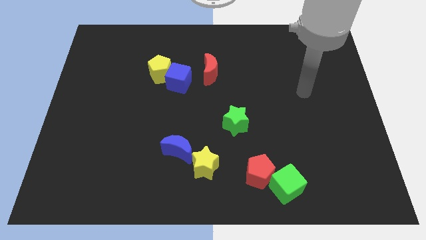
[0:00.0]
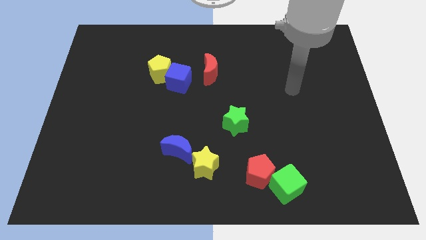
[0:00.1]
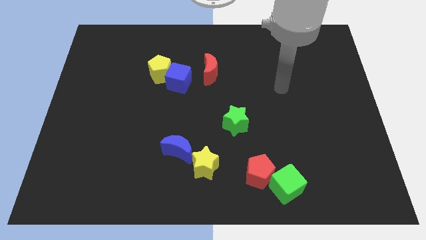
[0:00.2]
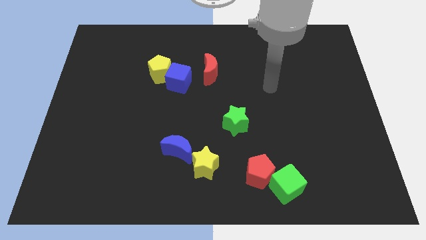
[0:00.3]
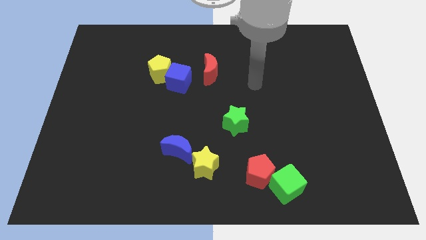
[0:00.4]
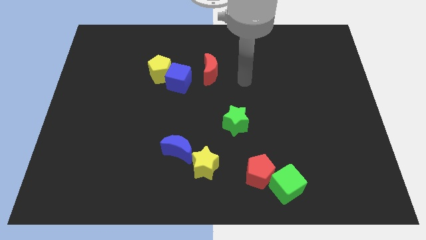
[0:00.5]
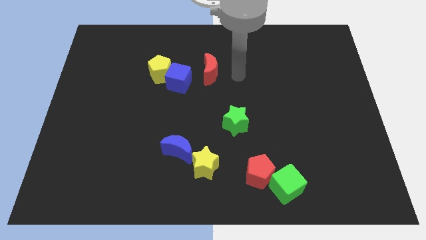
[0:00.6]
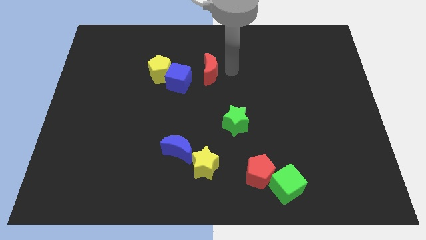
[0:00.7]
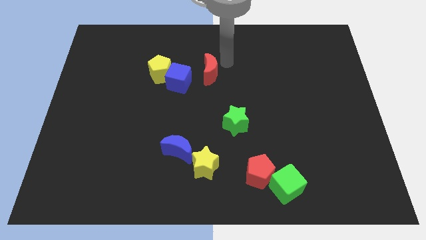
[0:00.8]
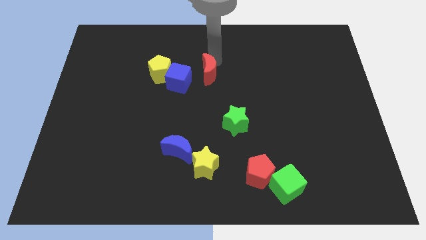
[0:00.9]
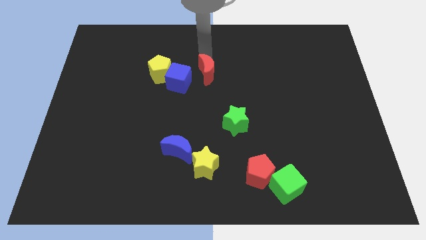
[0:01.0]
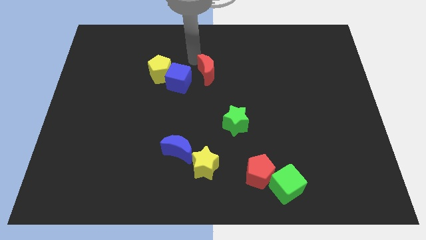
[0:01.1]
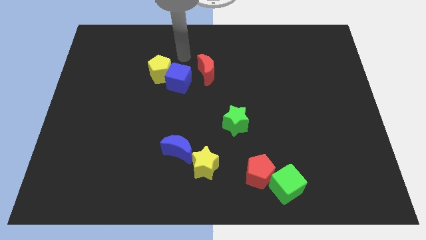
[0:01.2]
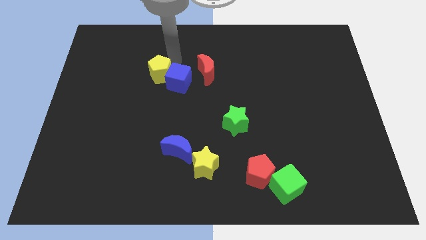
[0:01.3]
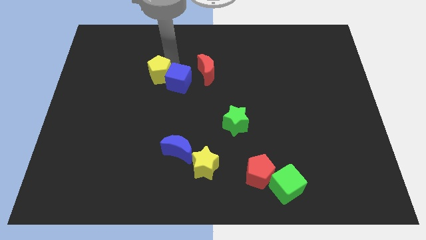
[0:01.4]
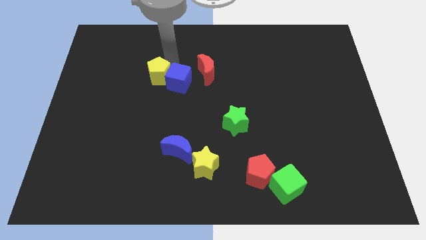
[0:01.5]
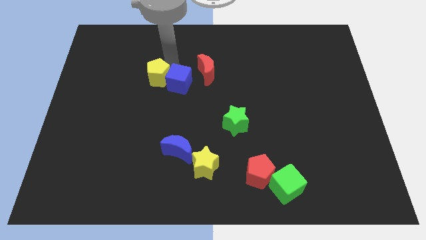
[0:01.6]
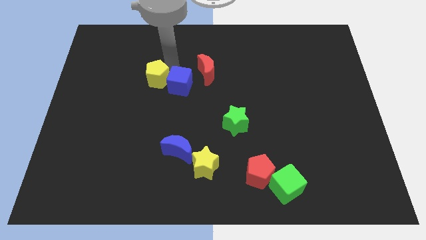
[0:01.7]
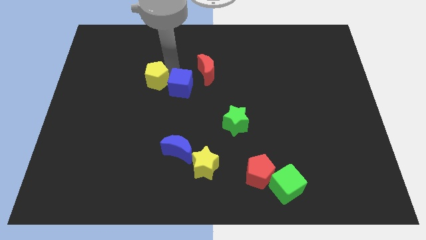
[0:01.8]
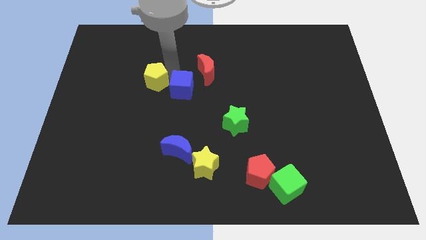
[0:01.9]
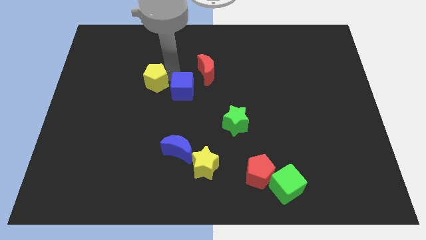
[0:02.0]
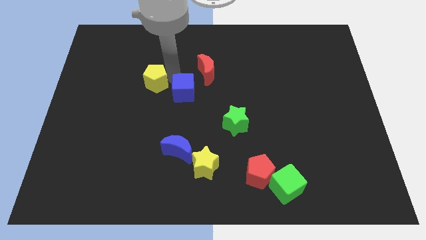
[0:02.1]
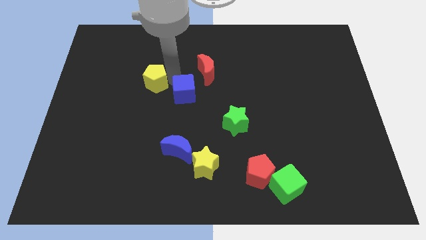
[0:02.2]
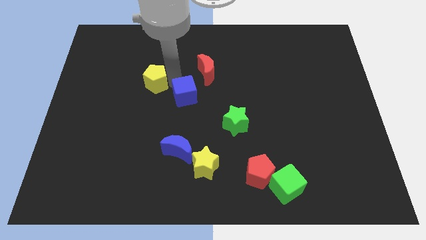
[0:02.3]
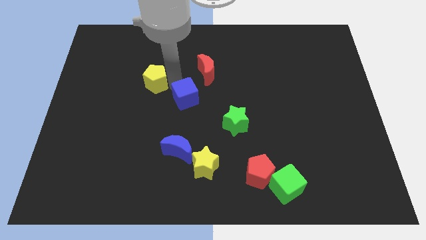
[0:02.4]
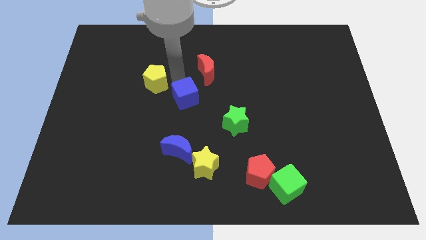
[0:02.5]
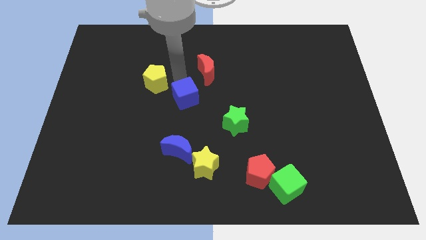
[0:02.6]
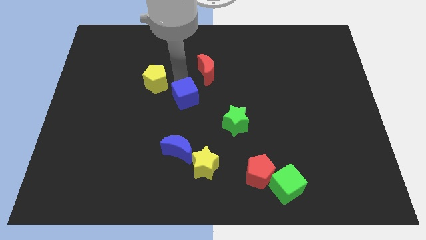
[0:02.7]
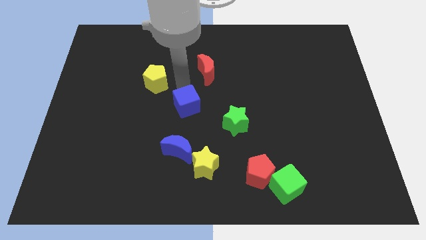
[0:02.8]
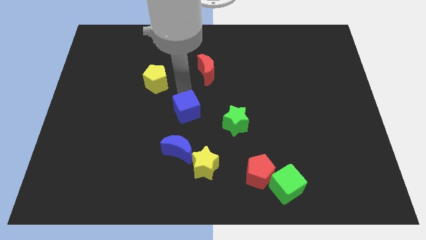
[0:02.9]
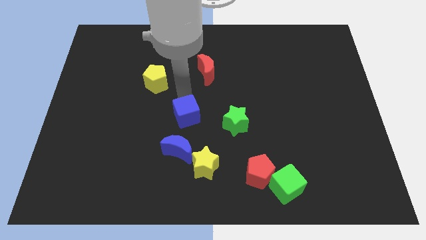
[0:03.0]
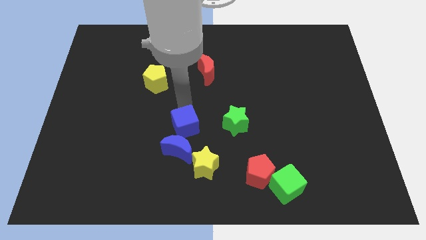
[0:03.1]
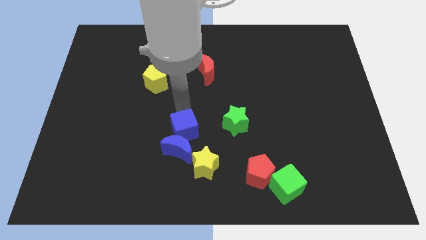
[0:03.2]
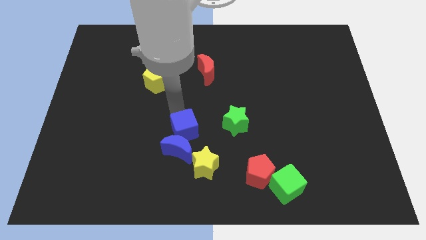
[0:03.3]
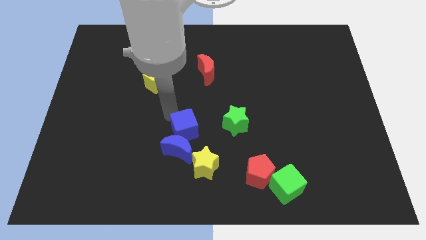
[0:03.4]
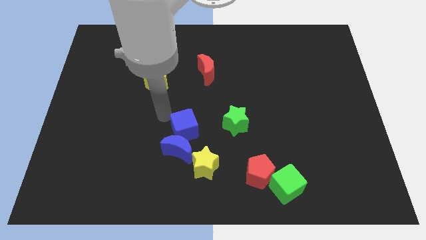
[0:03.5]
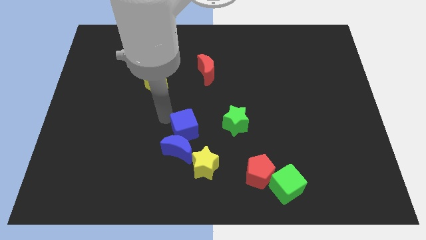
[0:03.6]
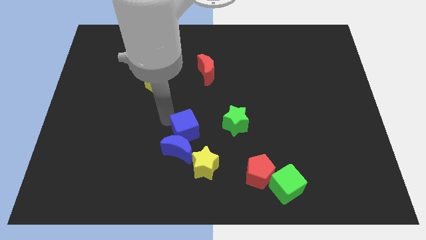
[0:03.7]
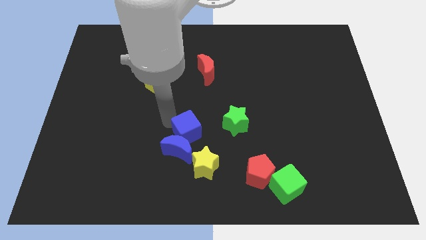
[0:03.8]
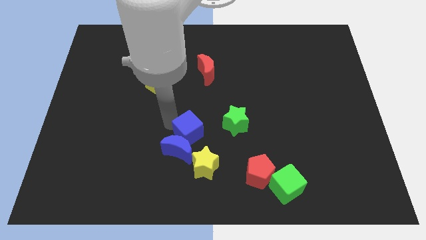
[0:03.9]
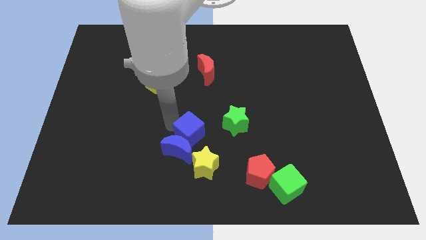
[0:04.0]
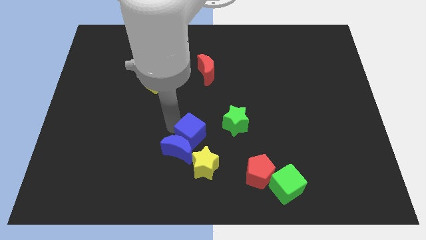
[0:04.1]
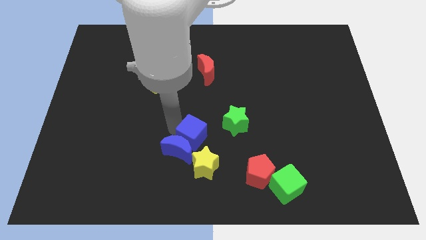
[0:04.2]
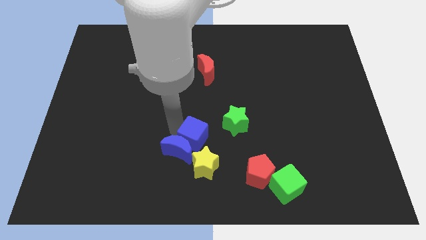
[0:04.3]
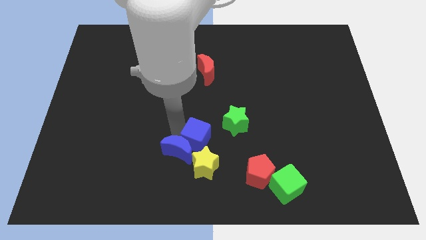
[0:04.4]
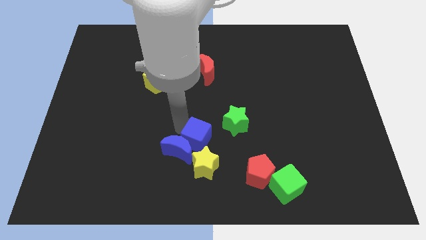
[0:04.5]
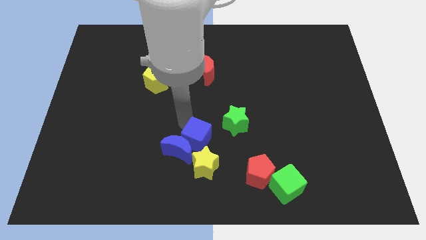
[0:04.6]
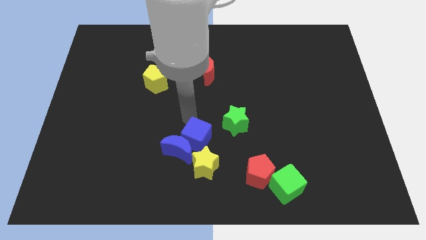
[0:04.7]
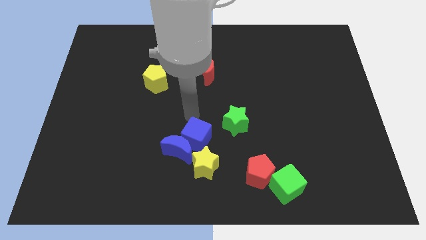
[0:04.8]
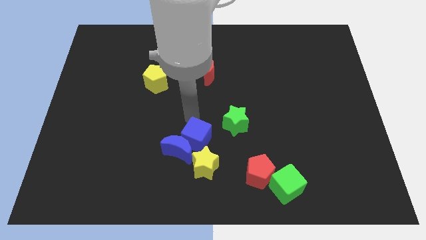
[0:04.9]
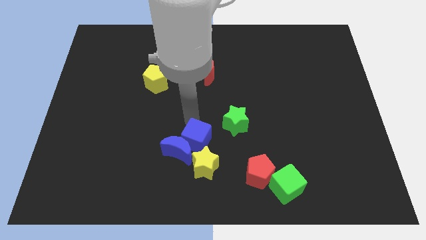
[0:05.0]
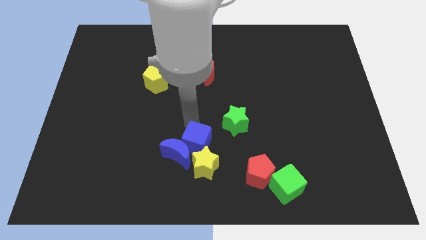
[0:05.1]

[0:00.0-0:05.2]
put the blue cube towards the yellow star
